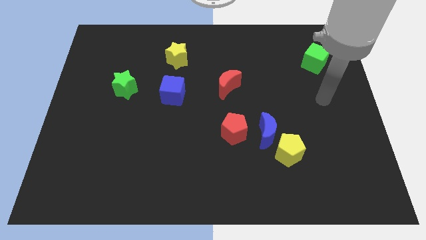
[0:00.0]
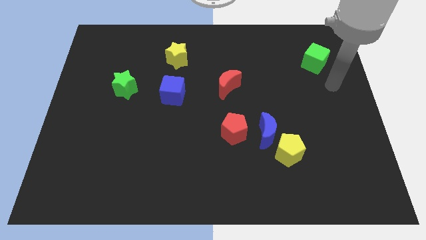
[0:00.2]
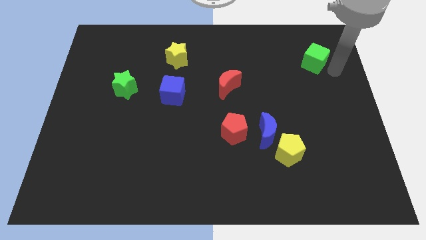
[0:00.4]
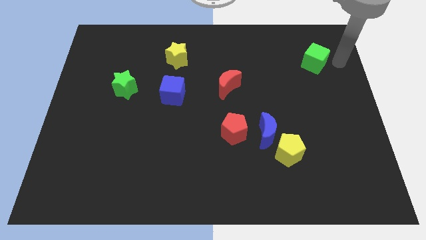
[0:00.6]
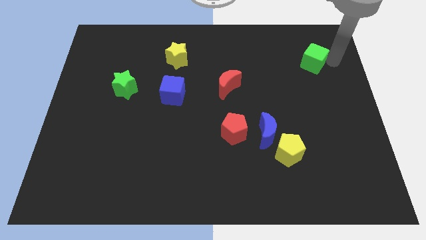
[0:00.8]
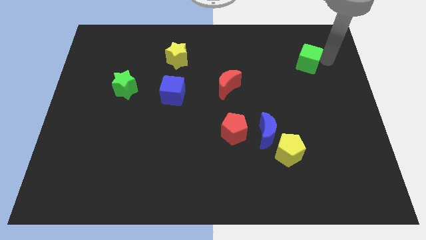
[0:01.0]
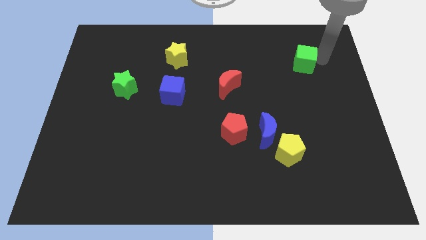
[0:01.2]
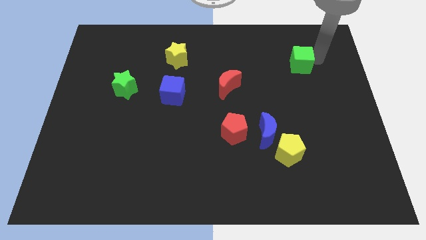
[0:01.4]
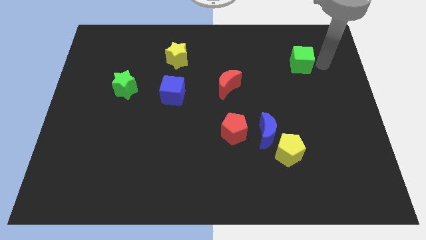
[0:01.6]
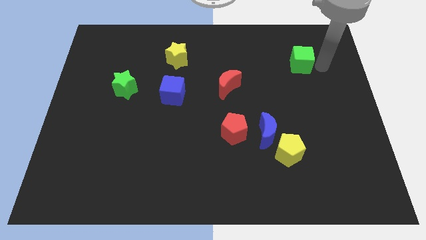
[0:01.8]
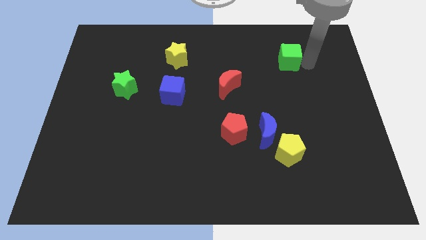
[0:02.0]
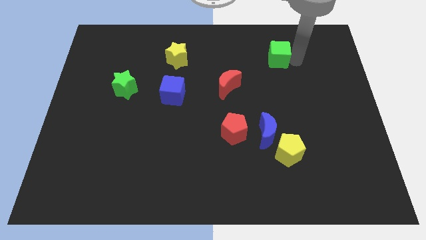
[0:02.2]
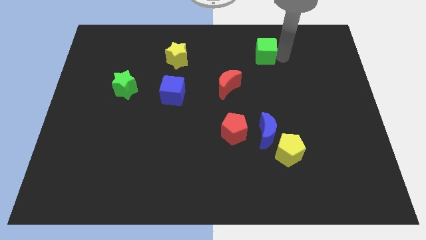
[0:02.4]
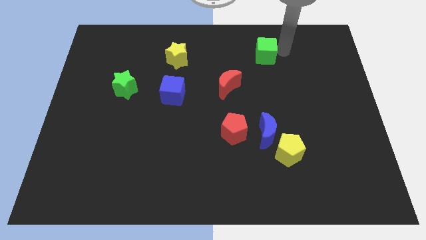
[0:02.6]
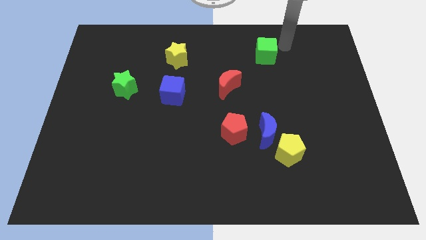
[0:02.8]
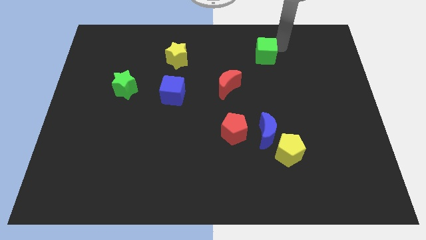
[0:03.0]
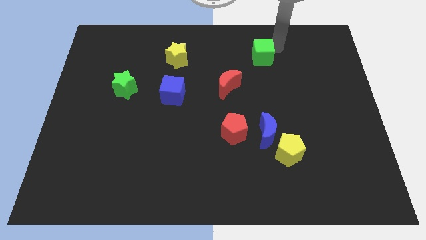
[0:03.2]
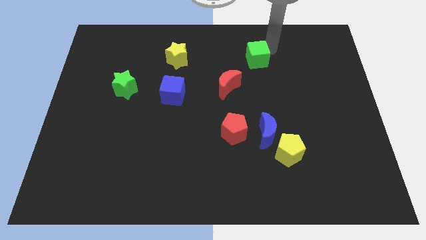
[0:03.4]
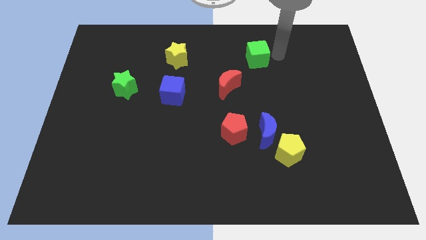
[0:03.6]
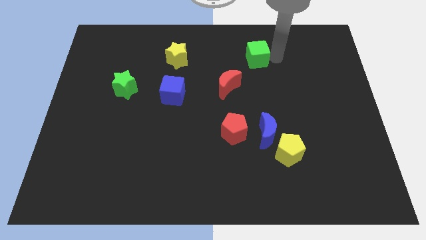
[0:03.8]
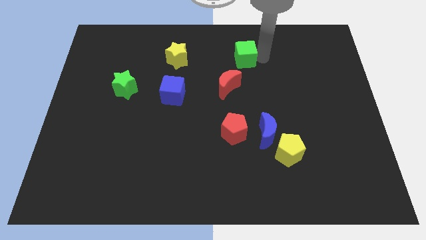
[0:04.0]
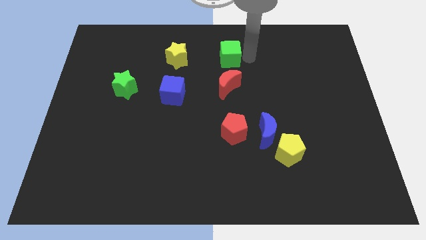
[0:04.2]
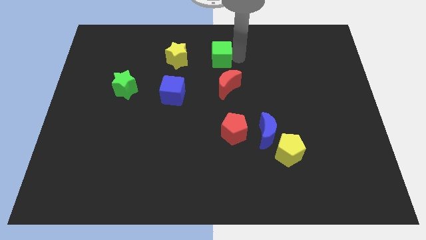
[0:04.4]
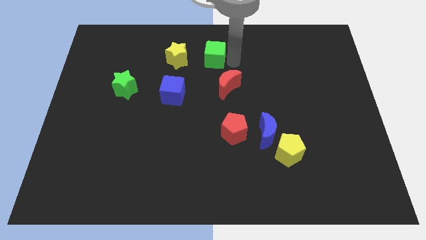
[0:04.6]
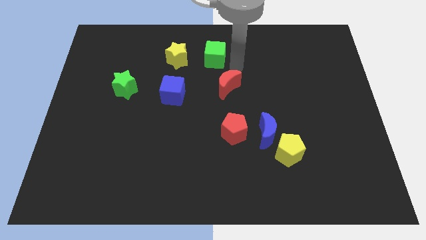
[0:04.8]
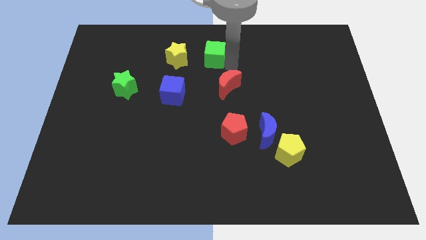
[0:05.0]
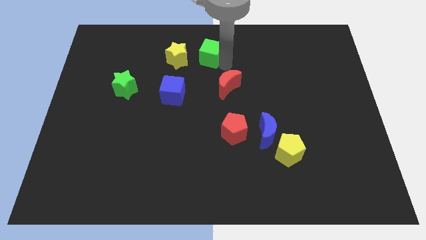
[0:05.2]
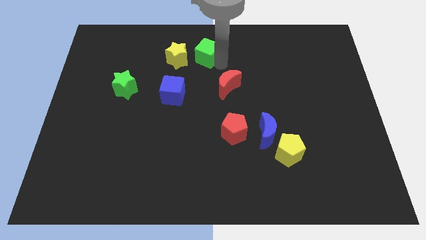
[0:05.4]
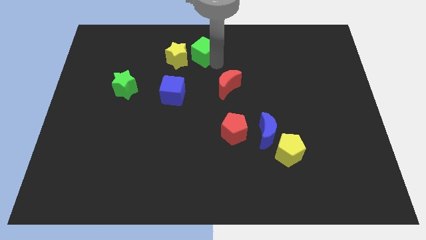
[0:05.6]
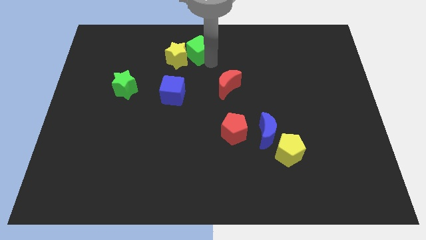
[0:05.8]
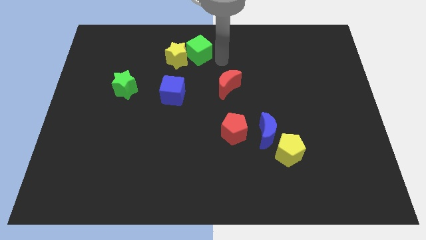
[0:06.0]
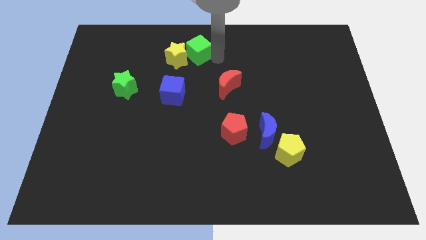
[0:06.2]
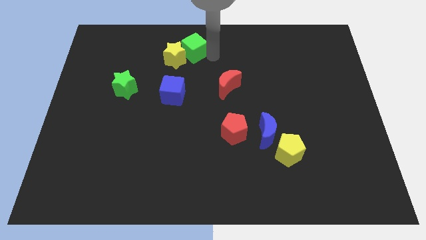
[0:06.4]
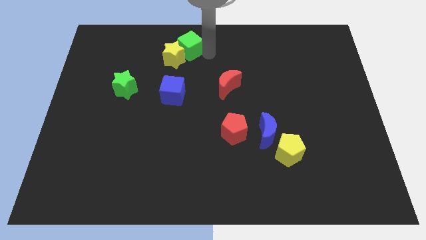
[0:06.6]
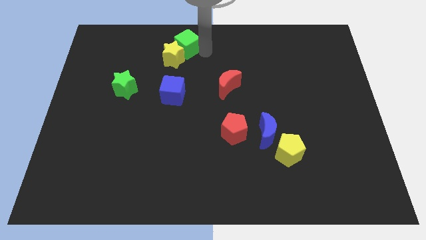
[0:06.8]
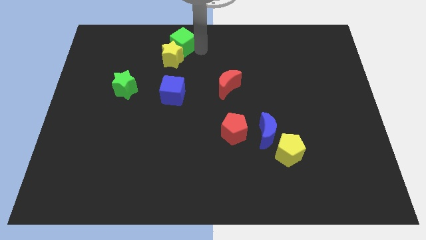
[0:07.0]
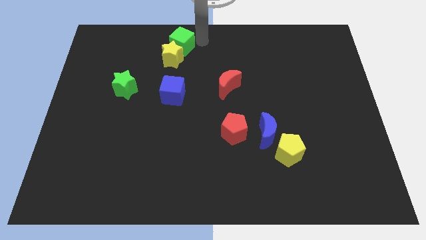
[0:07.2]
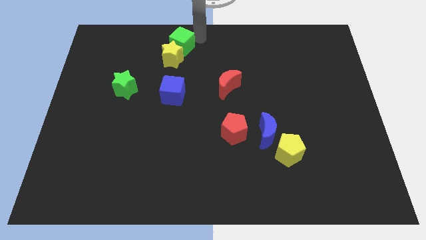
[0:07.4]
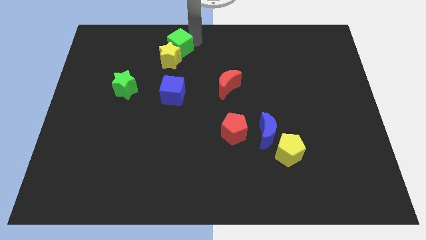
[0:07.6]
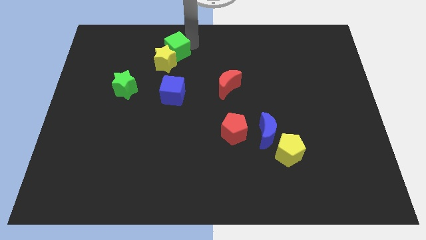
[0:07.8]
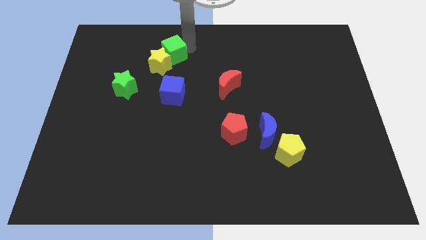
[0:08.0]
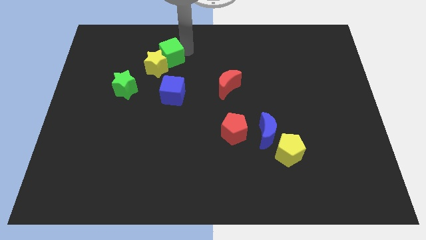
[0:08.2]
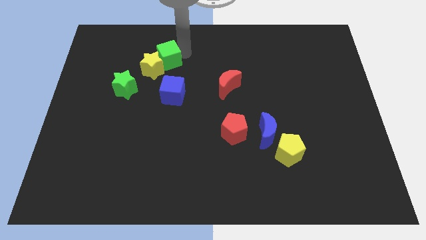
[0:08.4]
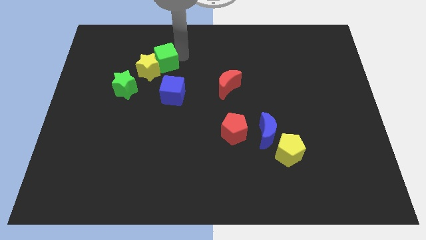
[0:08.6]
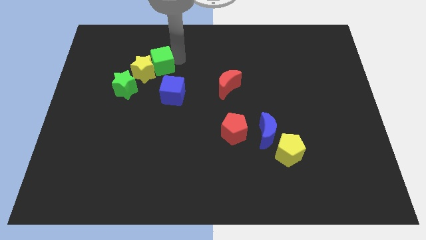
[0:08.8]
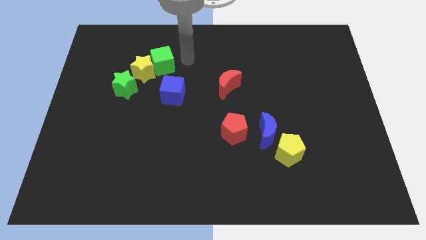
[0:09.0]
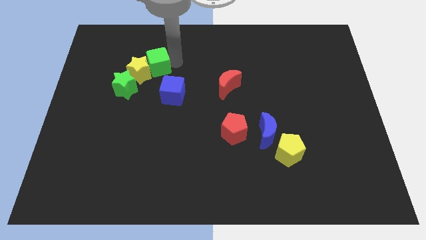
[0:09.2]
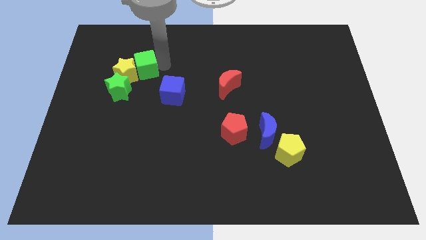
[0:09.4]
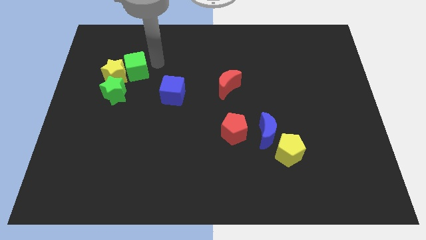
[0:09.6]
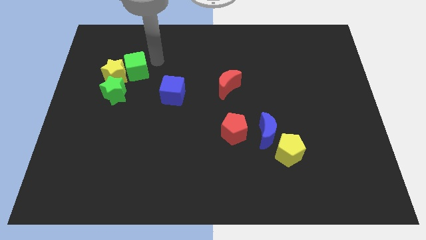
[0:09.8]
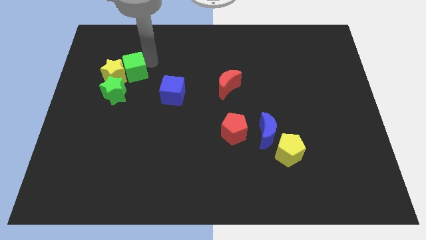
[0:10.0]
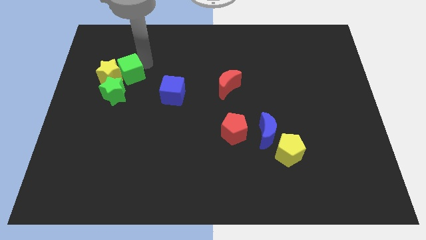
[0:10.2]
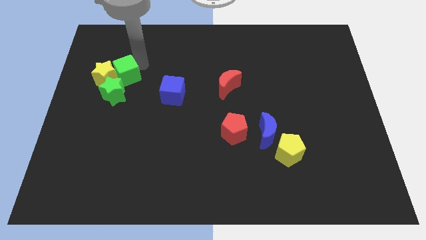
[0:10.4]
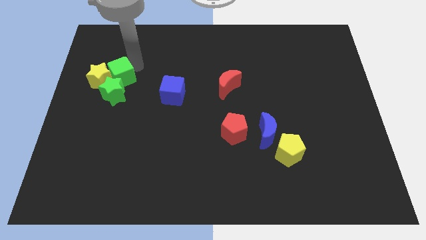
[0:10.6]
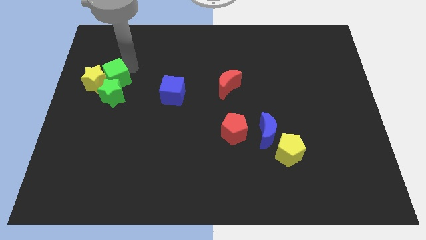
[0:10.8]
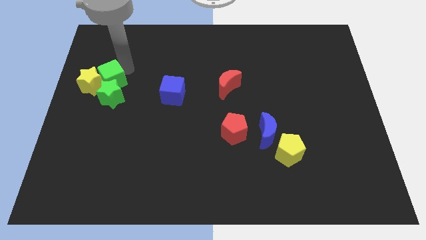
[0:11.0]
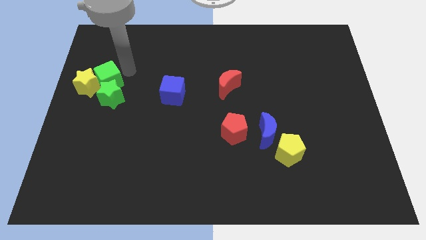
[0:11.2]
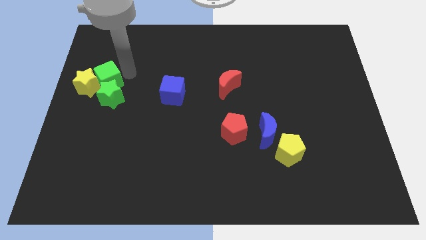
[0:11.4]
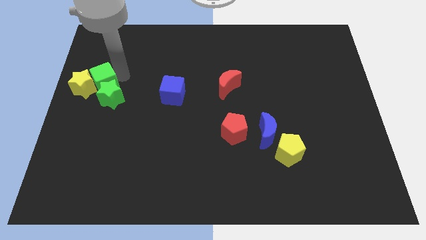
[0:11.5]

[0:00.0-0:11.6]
slide the green cube to the left side

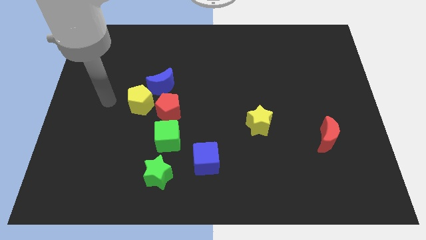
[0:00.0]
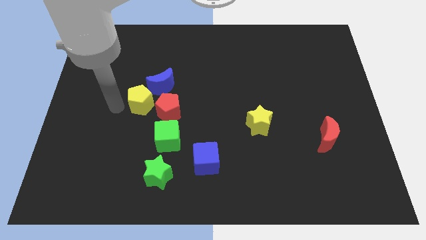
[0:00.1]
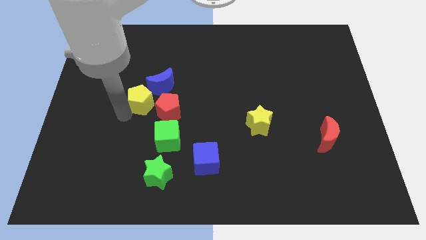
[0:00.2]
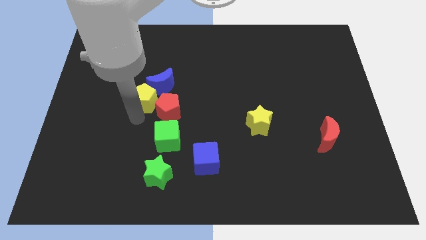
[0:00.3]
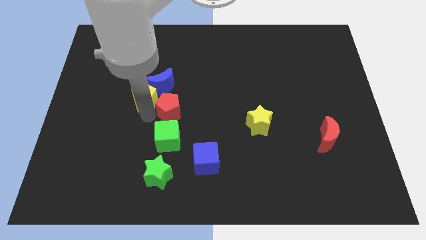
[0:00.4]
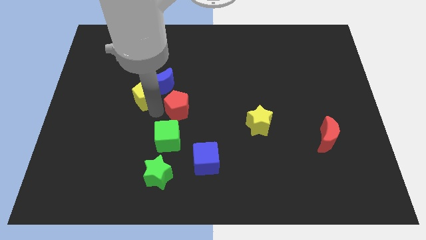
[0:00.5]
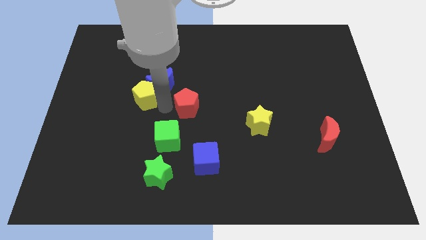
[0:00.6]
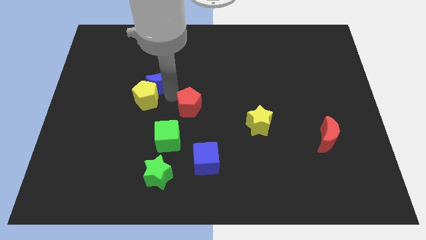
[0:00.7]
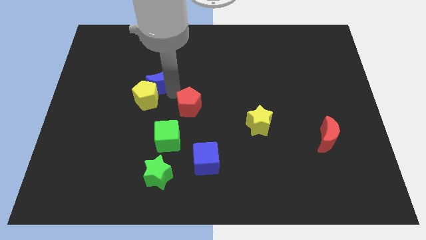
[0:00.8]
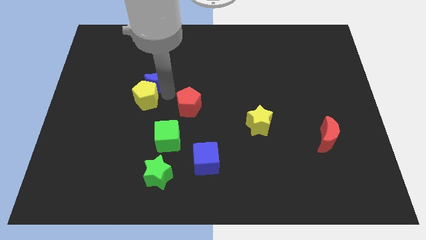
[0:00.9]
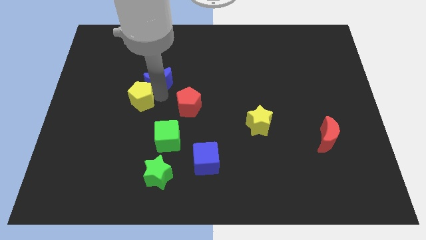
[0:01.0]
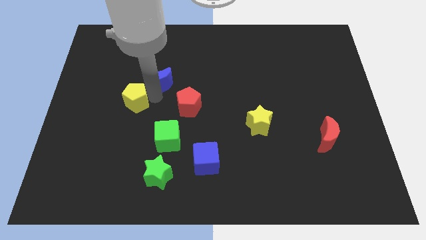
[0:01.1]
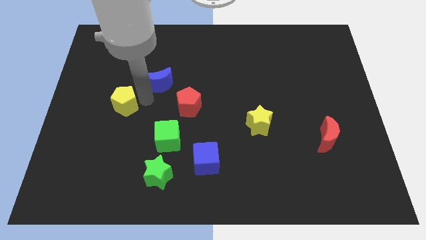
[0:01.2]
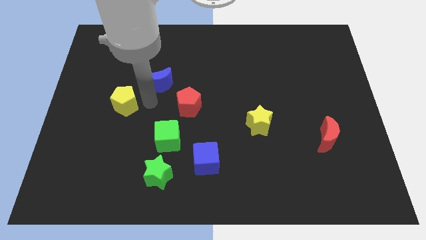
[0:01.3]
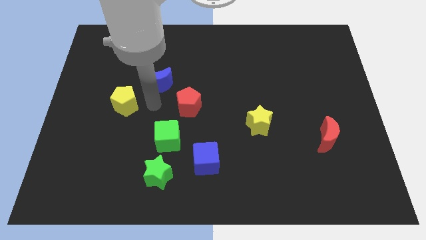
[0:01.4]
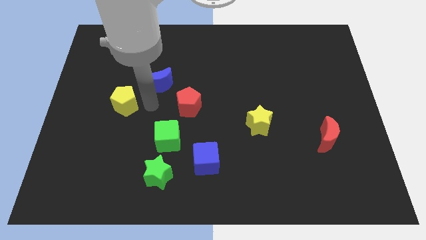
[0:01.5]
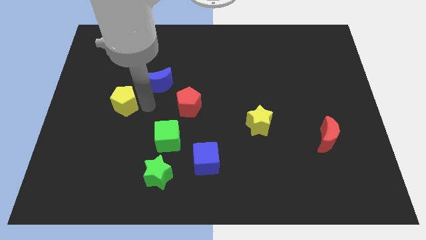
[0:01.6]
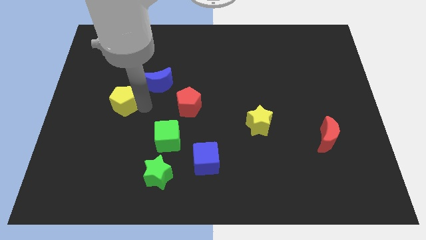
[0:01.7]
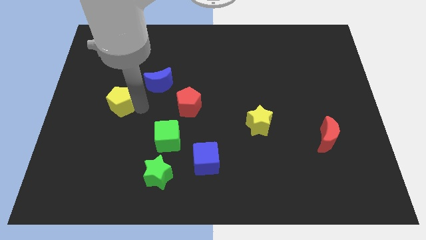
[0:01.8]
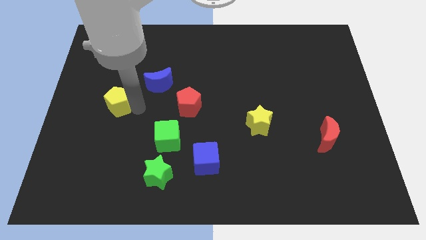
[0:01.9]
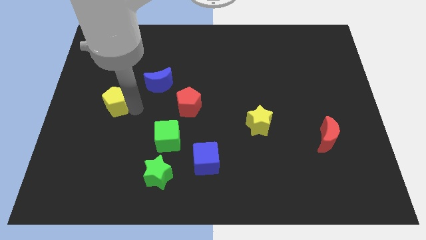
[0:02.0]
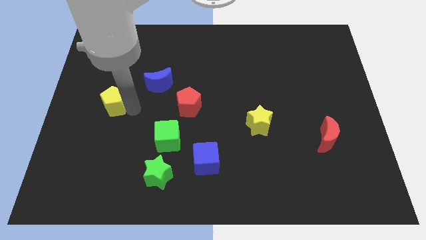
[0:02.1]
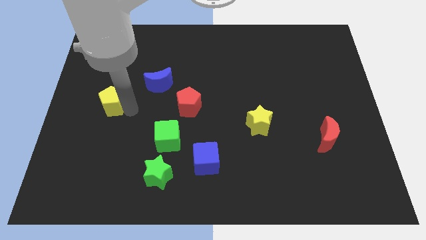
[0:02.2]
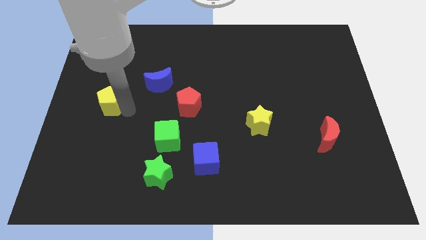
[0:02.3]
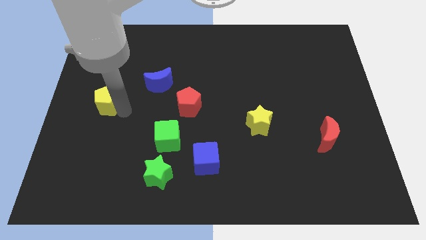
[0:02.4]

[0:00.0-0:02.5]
slide the yellow pentagon to the left side
